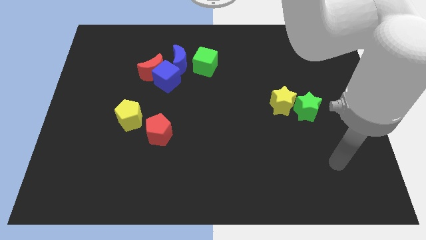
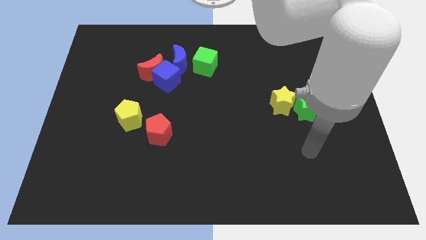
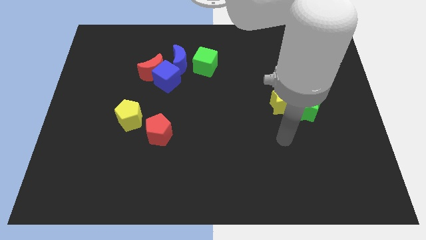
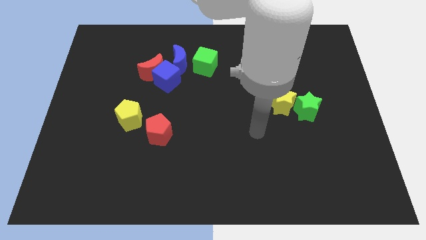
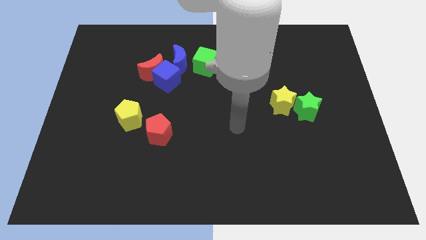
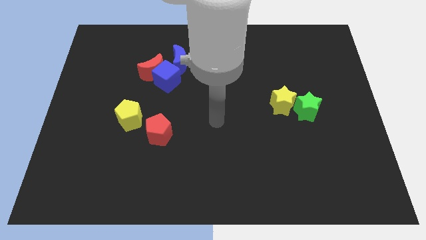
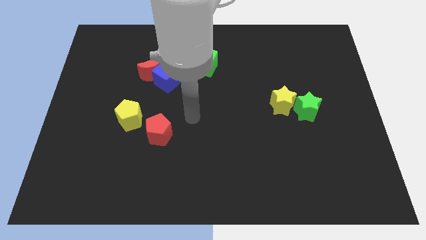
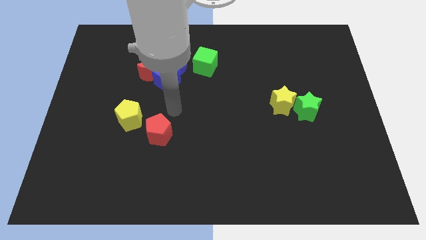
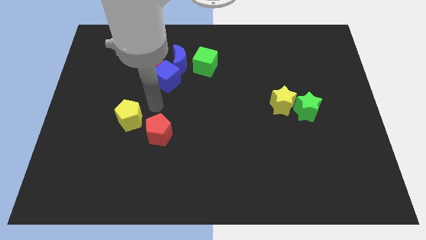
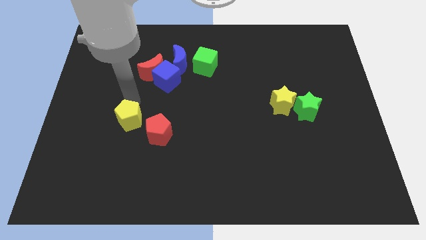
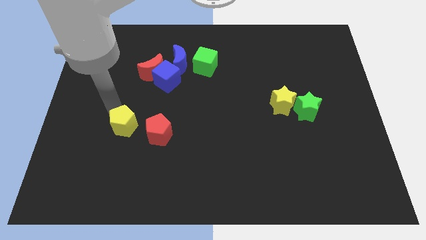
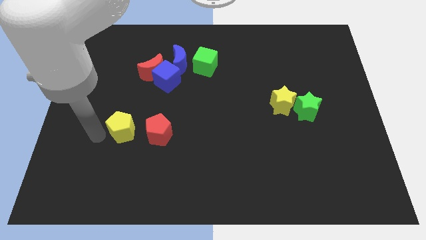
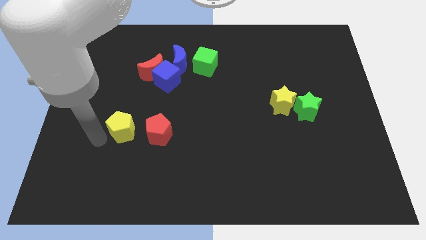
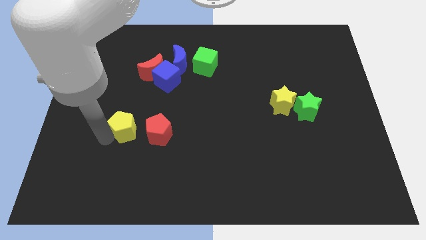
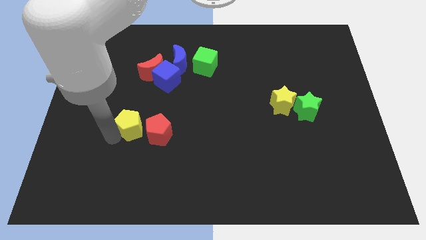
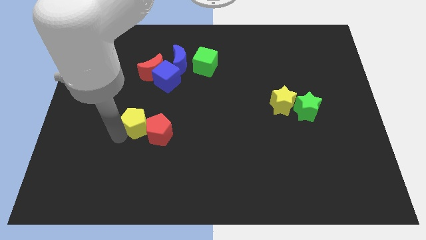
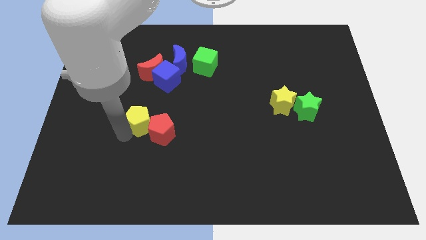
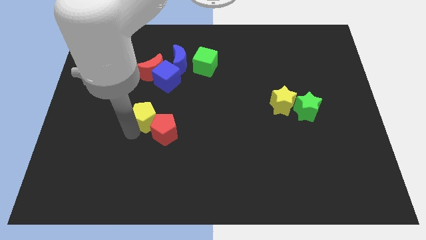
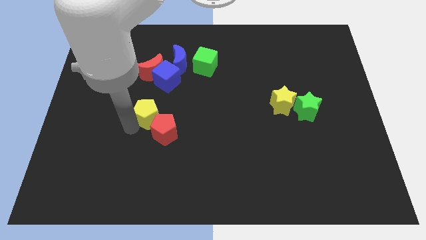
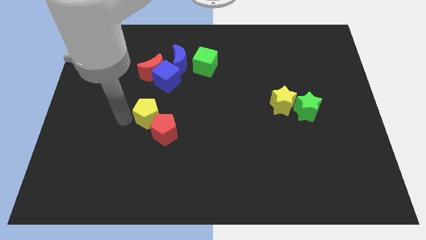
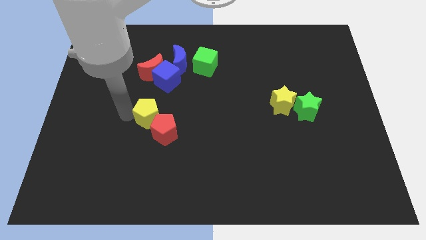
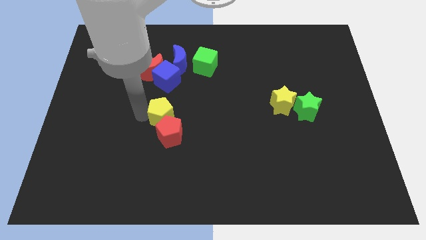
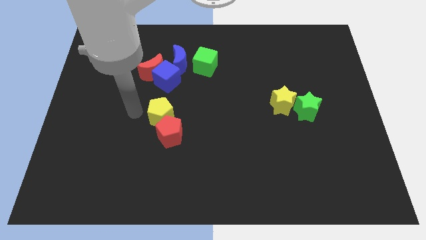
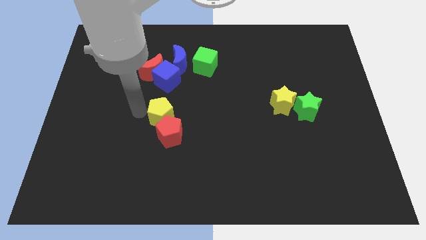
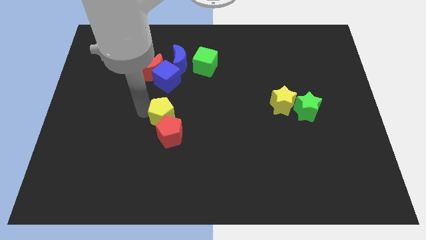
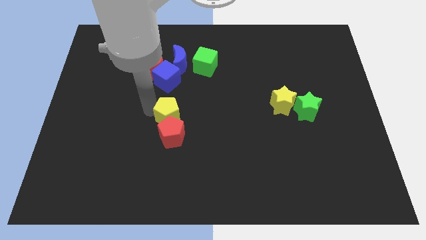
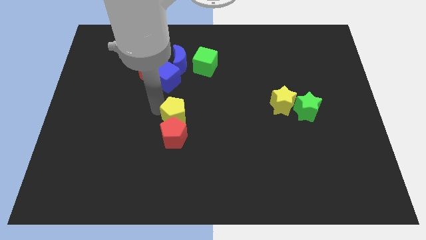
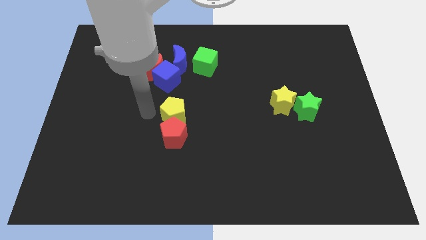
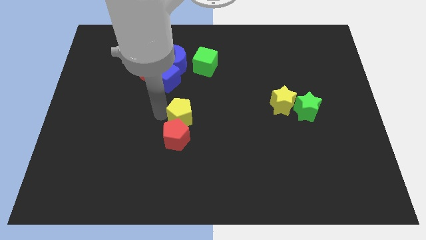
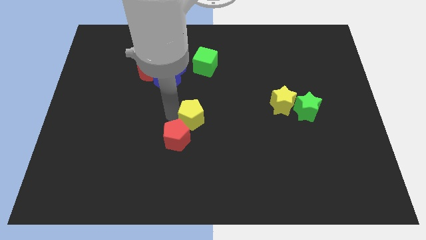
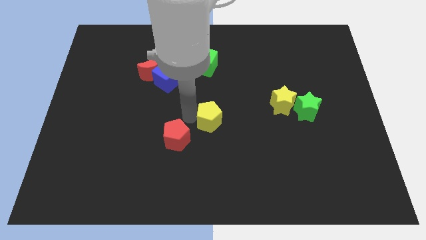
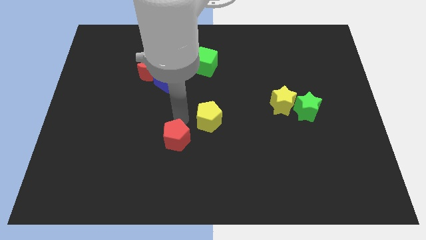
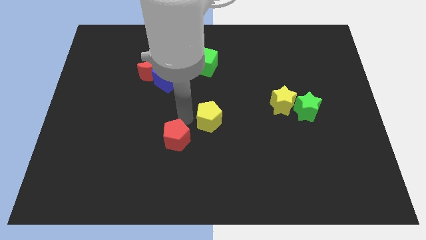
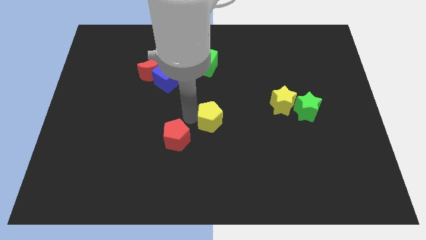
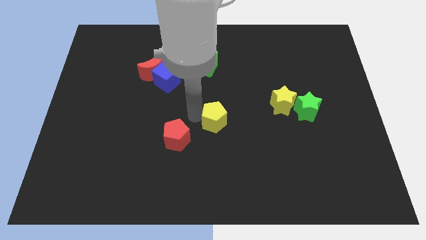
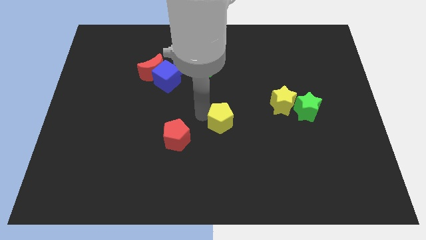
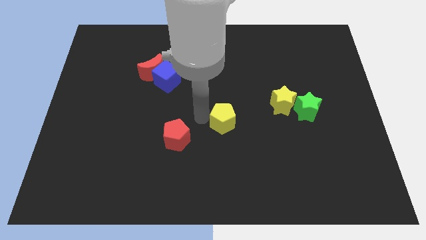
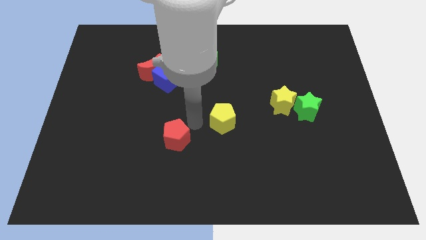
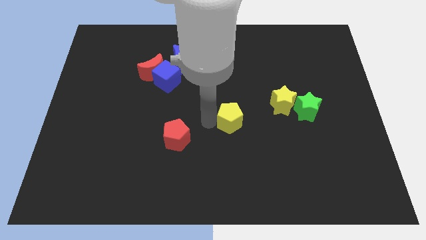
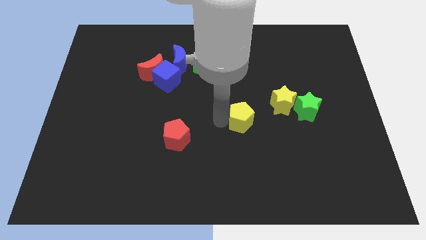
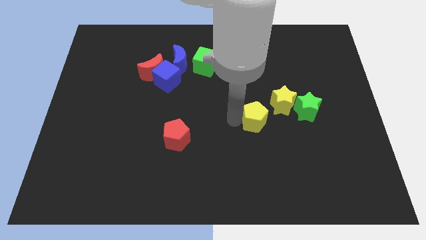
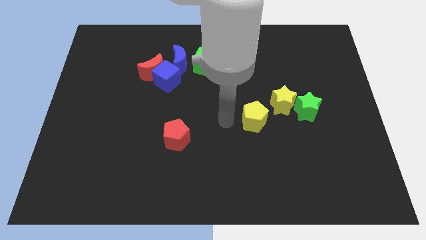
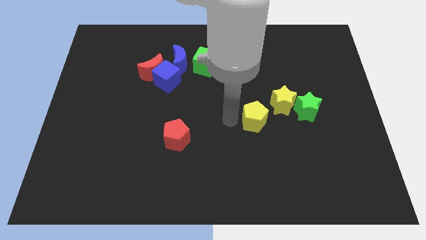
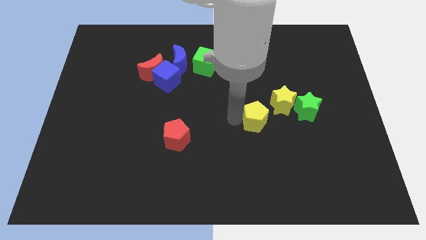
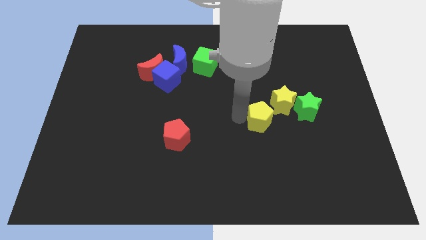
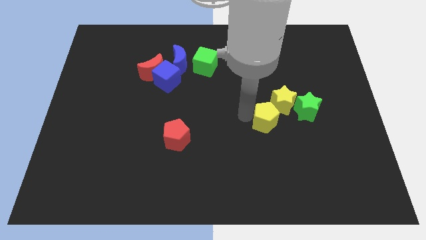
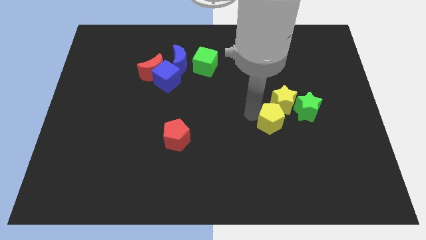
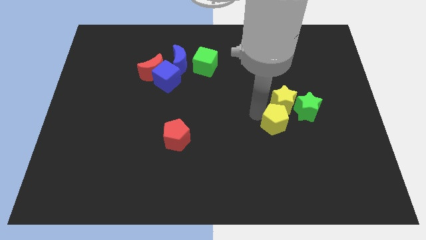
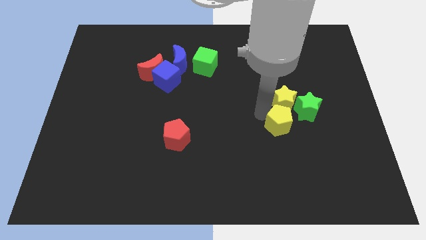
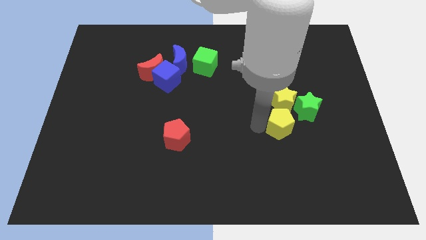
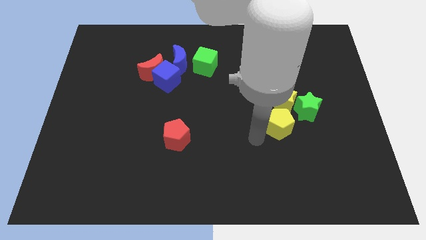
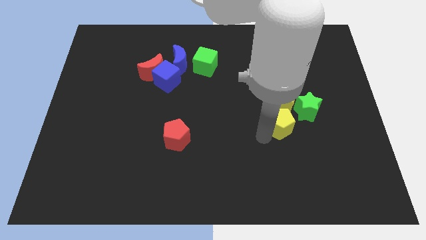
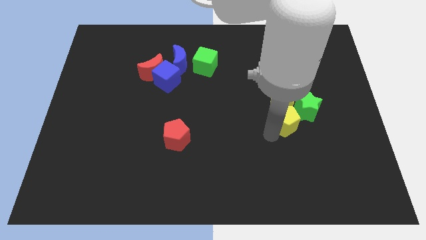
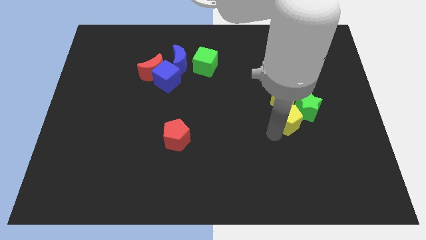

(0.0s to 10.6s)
move the yellow pentagon close to the green star

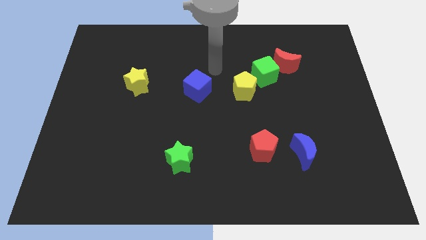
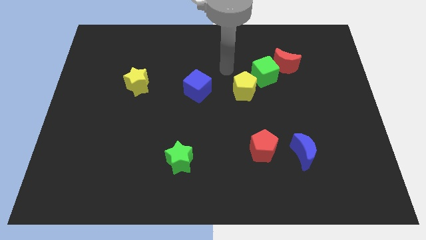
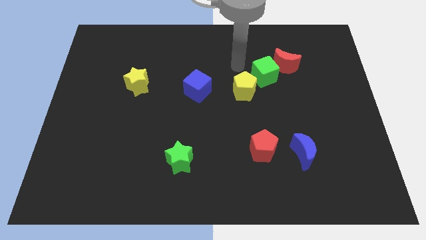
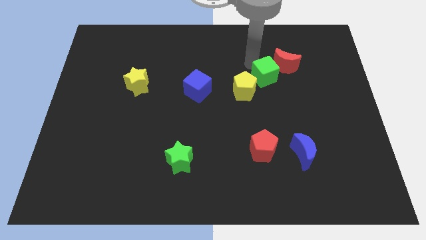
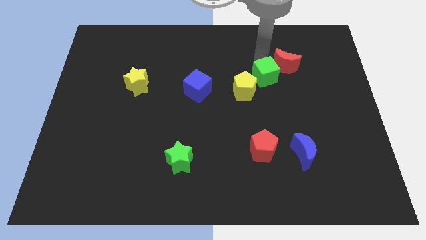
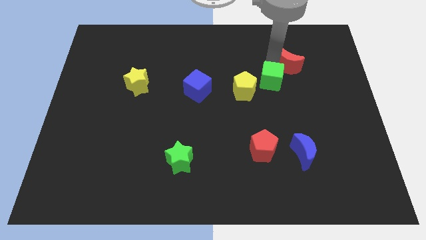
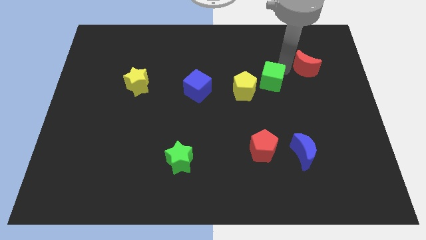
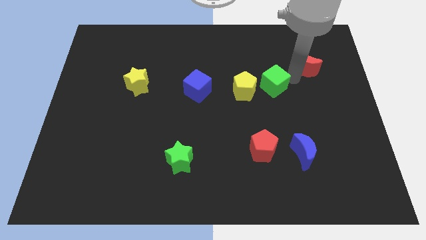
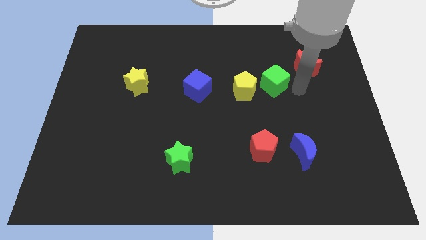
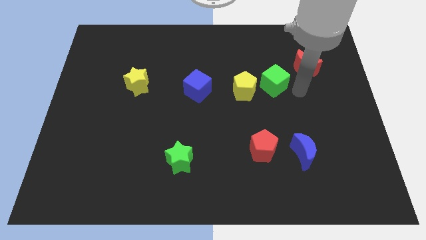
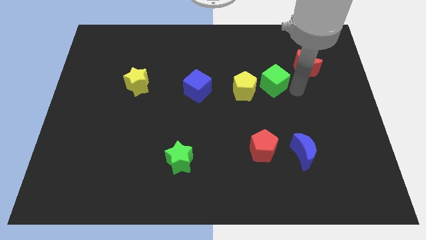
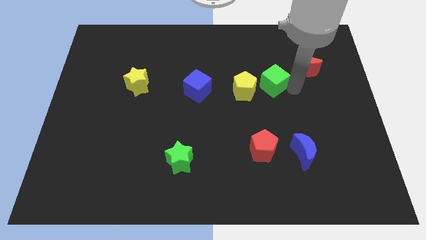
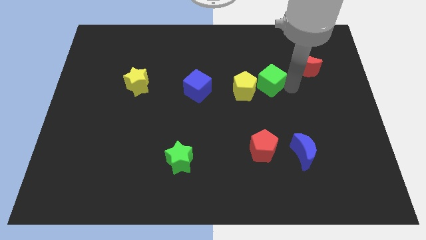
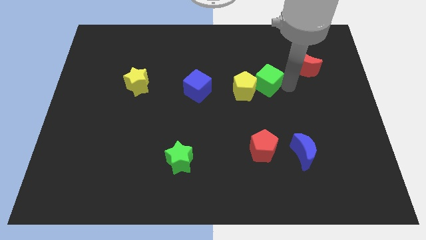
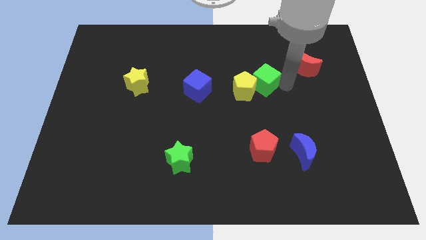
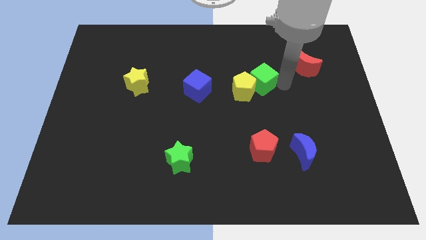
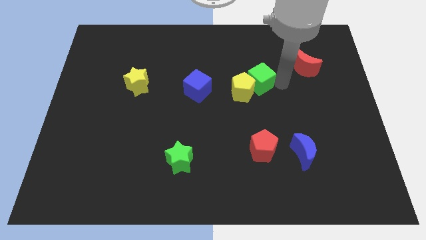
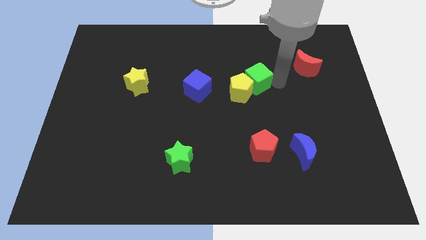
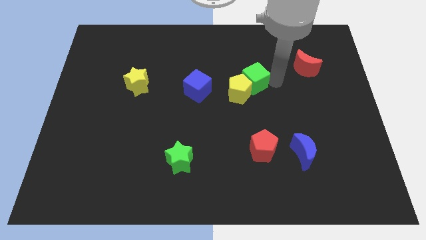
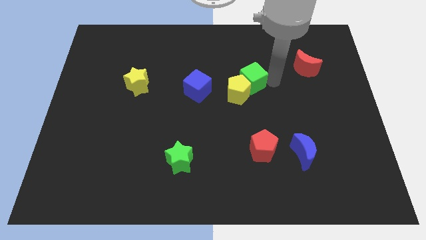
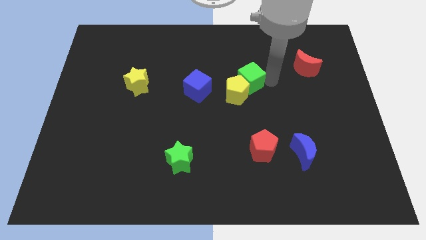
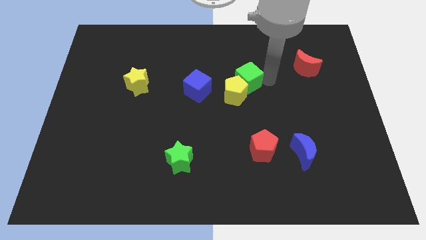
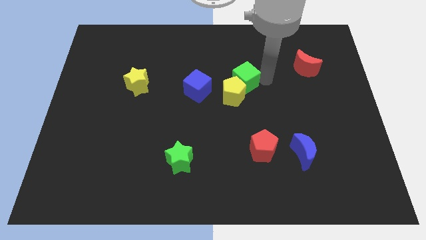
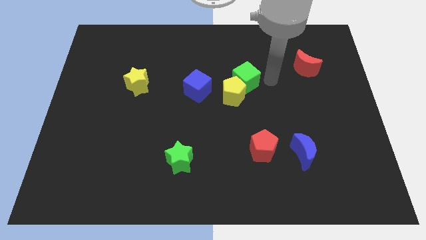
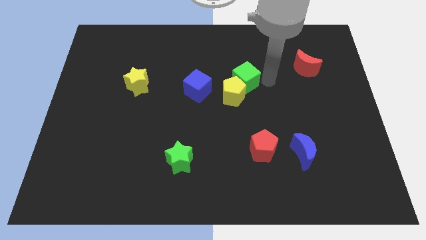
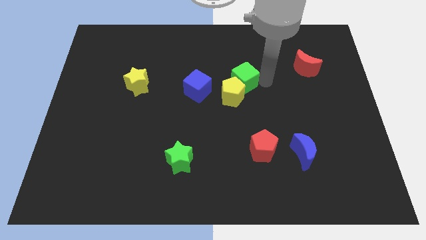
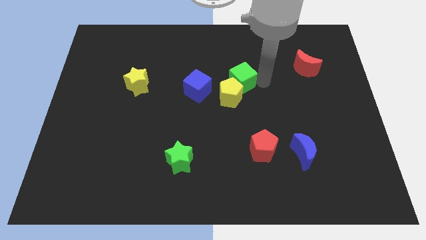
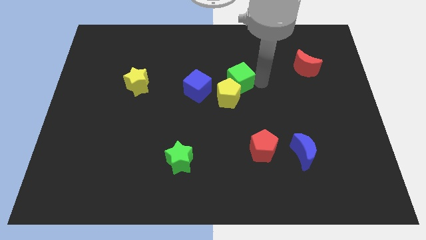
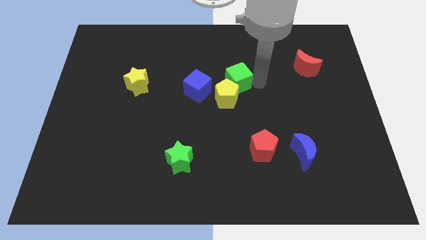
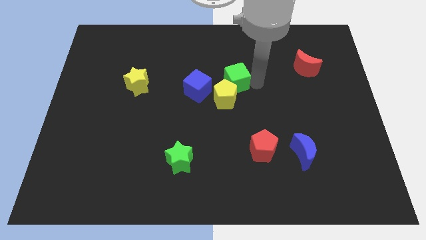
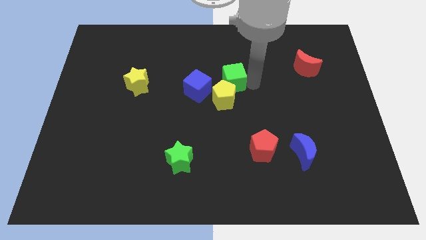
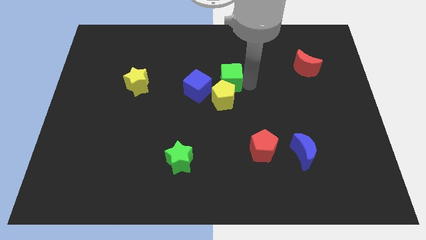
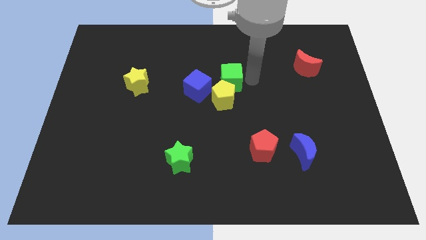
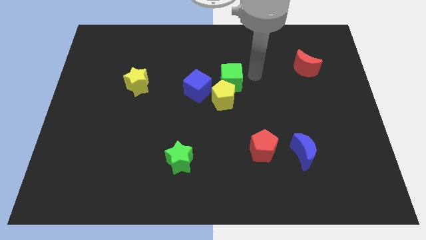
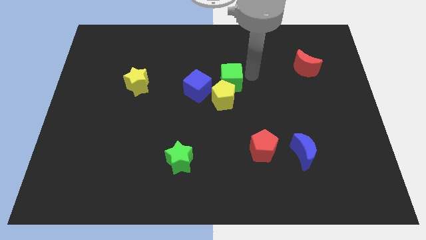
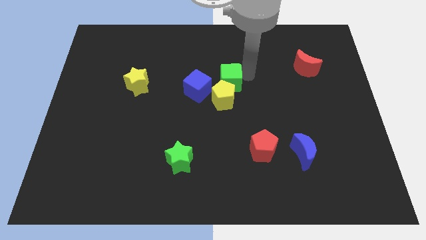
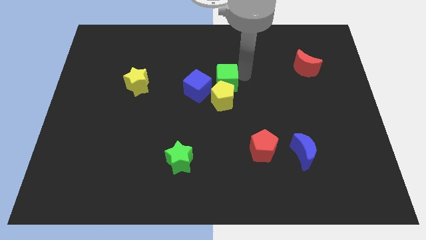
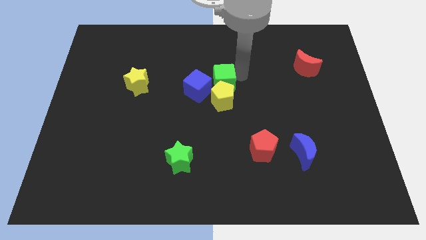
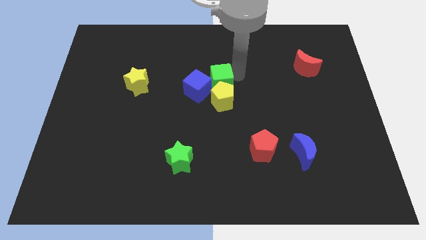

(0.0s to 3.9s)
move the green cube next to the blue cube
